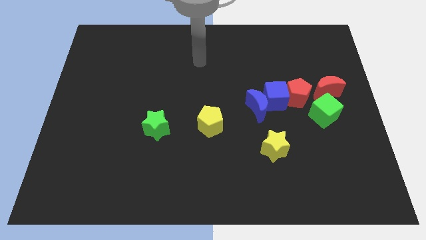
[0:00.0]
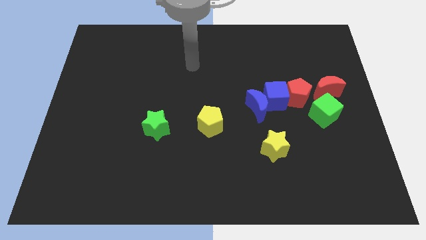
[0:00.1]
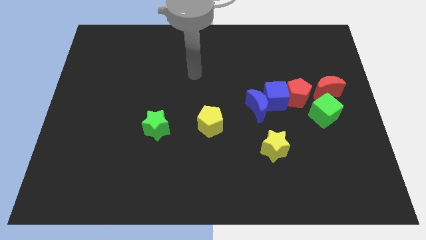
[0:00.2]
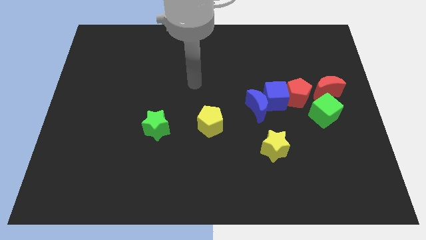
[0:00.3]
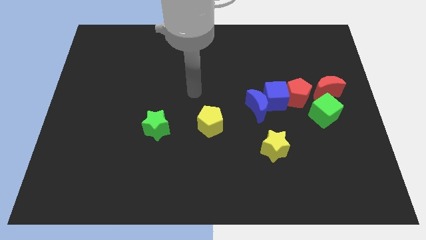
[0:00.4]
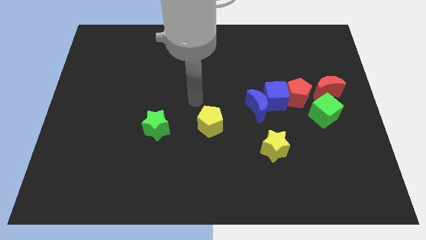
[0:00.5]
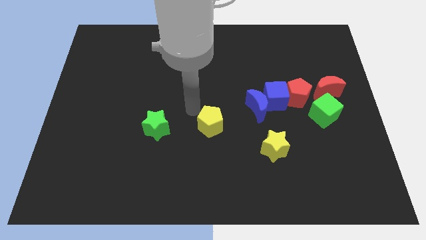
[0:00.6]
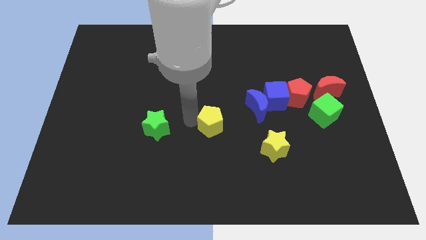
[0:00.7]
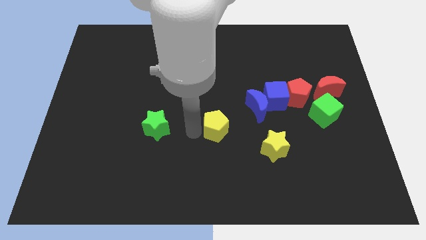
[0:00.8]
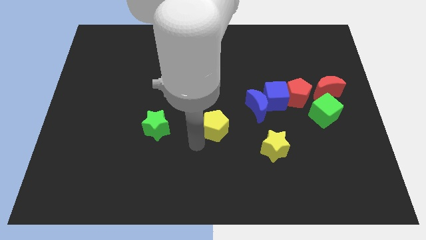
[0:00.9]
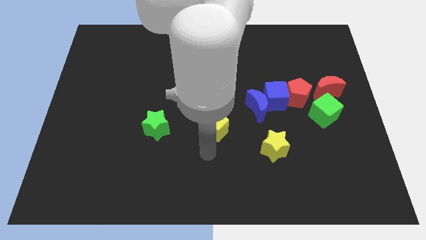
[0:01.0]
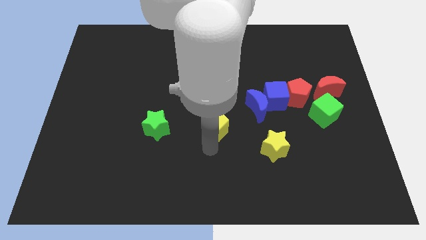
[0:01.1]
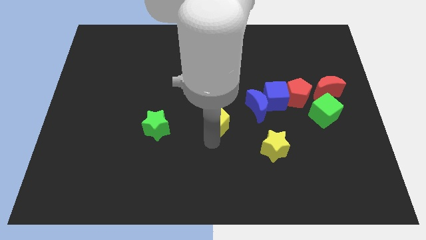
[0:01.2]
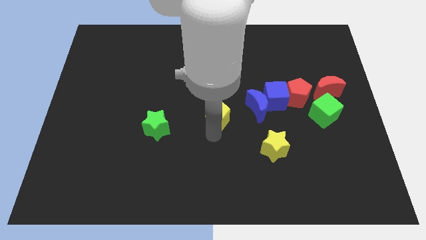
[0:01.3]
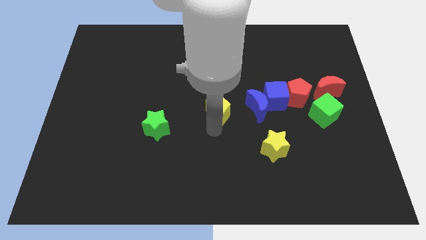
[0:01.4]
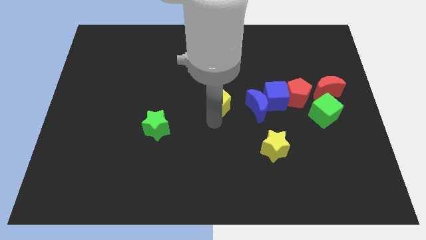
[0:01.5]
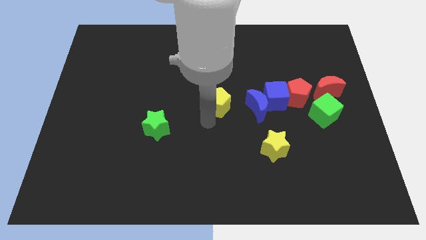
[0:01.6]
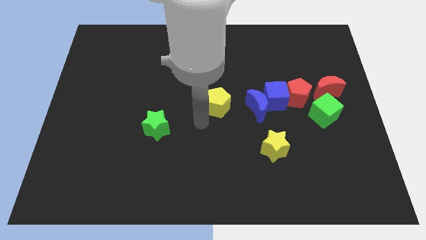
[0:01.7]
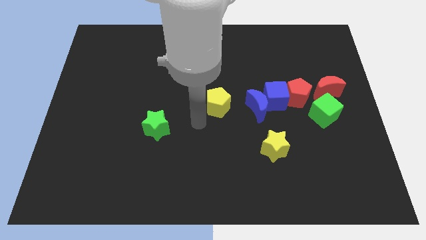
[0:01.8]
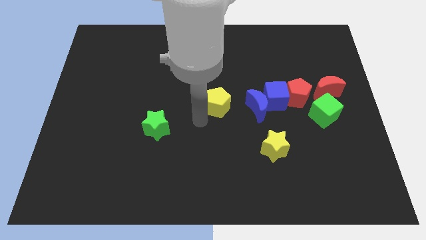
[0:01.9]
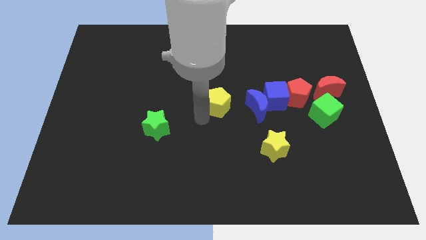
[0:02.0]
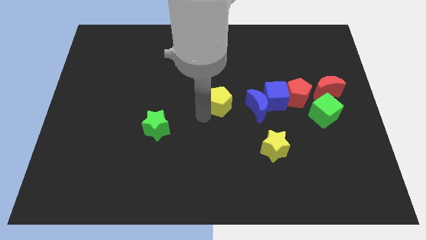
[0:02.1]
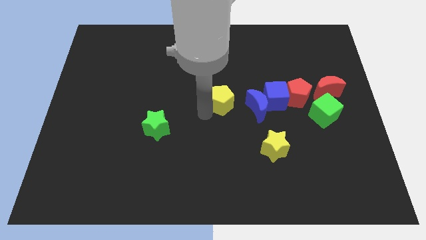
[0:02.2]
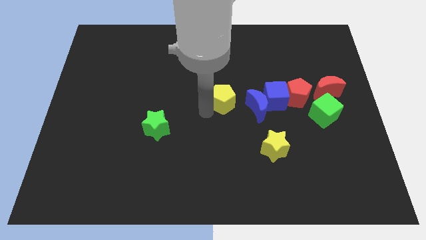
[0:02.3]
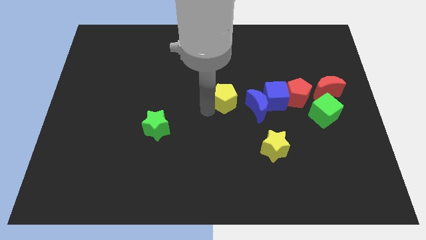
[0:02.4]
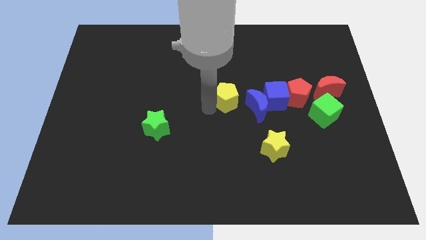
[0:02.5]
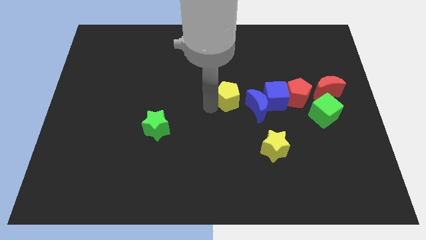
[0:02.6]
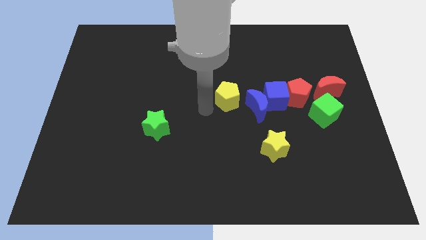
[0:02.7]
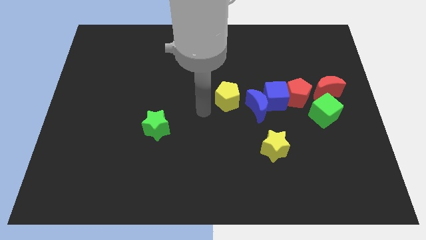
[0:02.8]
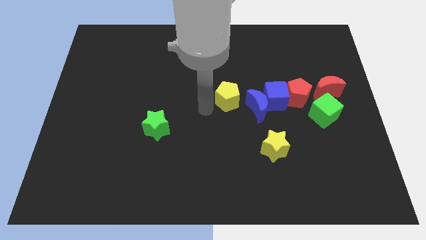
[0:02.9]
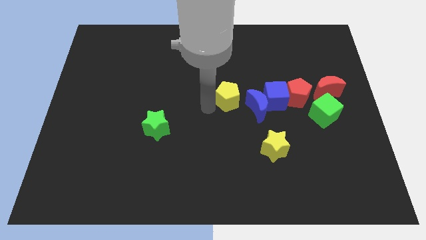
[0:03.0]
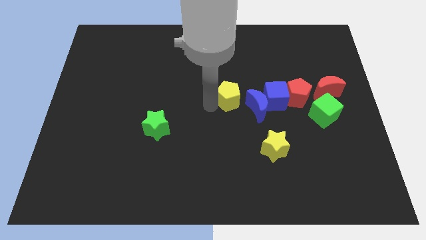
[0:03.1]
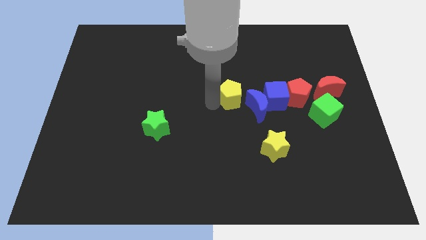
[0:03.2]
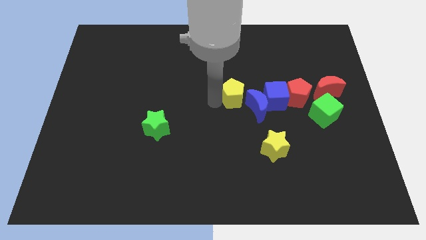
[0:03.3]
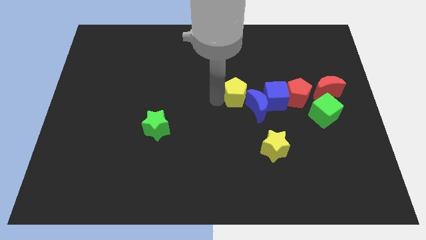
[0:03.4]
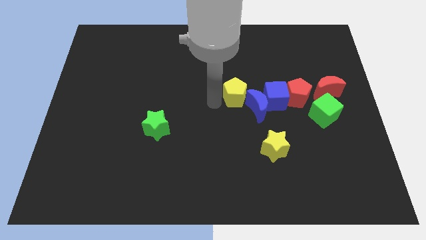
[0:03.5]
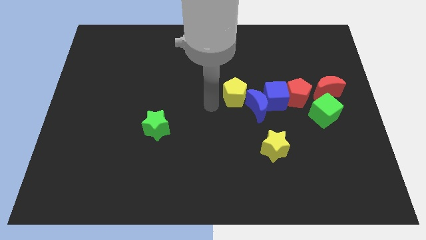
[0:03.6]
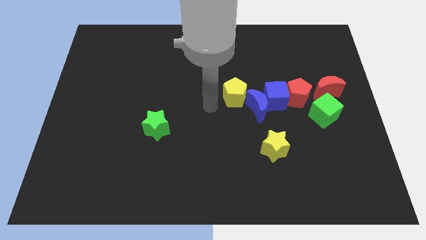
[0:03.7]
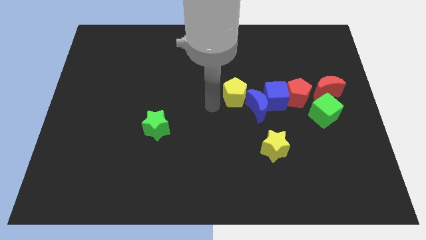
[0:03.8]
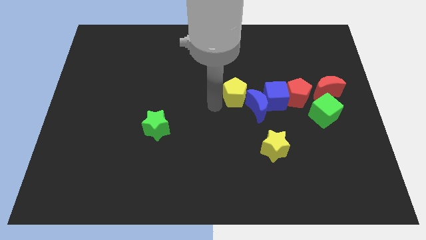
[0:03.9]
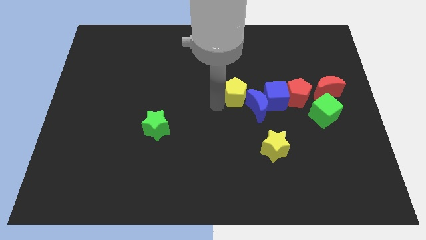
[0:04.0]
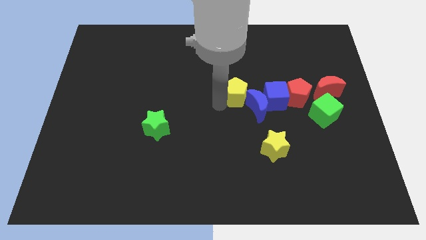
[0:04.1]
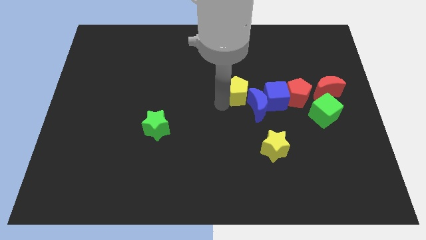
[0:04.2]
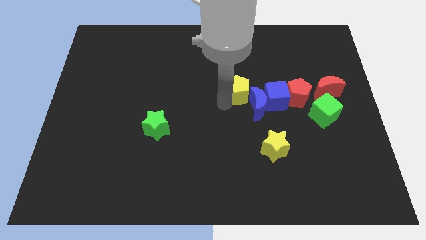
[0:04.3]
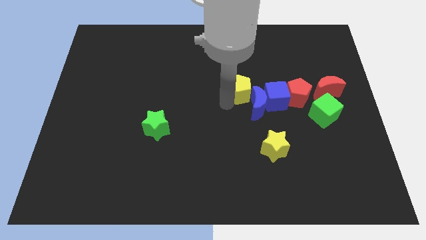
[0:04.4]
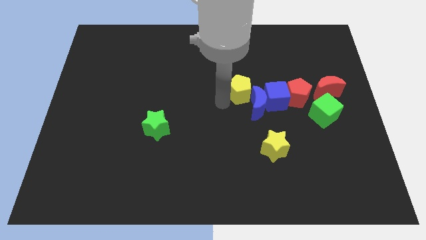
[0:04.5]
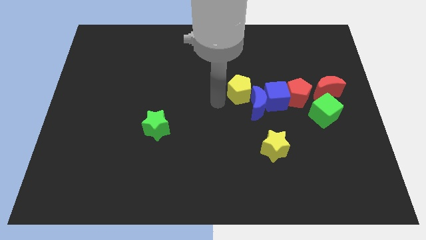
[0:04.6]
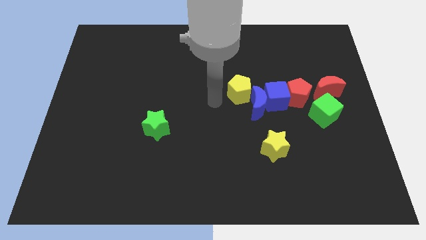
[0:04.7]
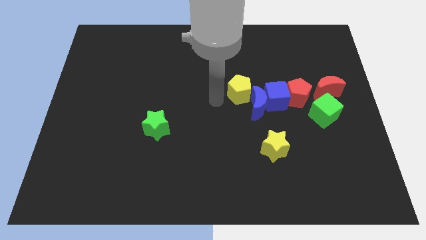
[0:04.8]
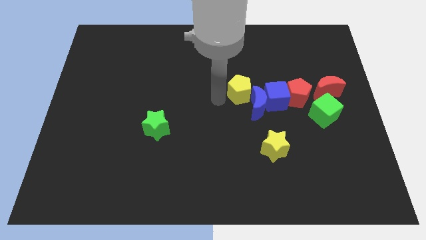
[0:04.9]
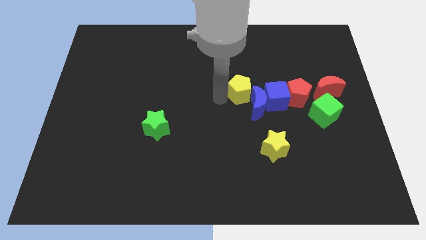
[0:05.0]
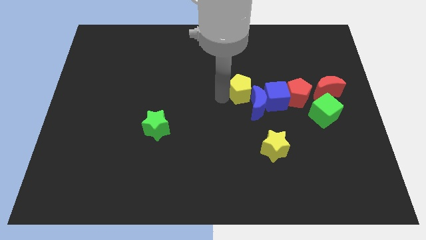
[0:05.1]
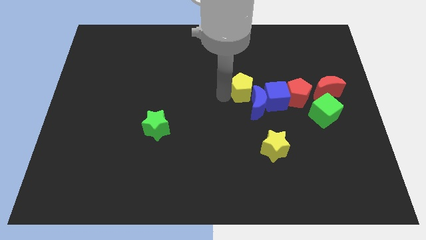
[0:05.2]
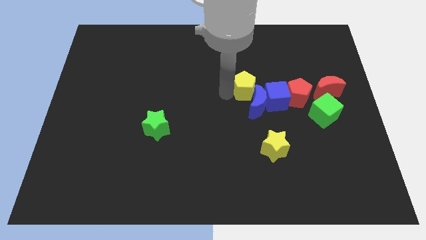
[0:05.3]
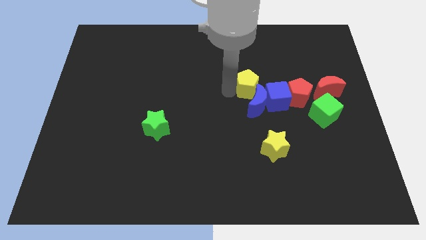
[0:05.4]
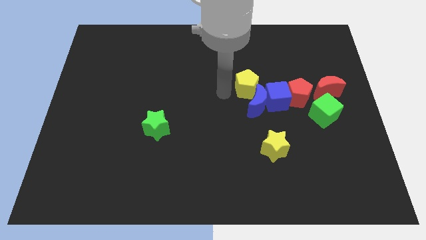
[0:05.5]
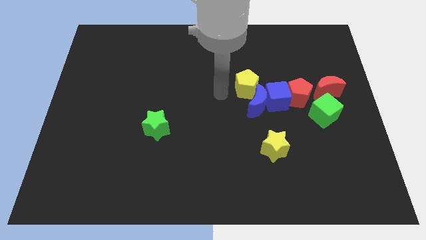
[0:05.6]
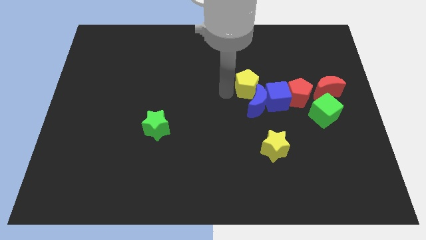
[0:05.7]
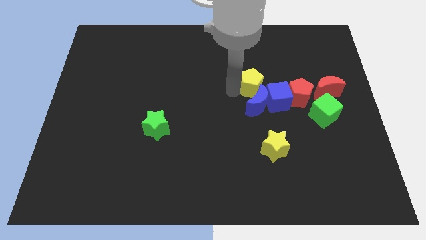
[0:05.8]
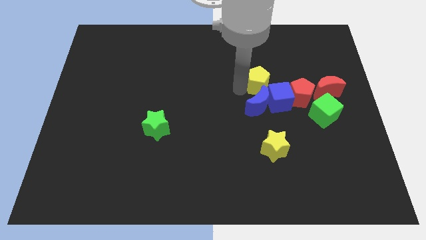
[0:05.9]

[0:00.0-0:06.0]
move the yellow pentagon to the top left of the red pentagon

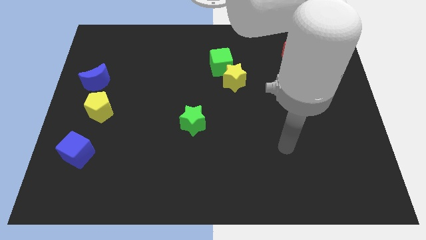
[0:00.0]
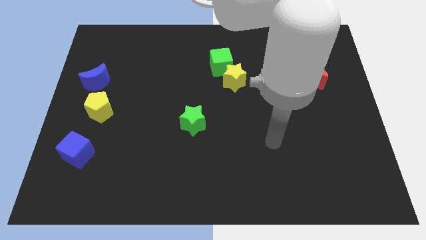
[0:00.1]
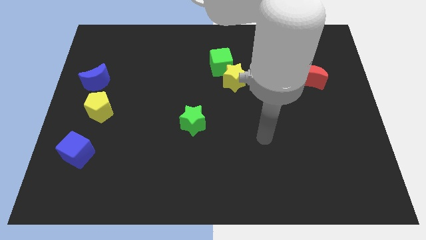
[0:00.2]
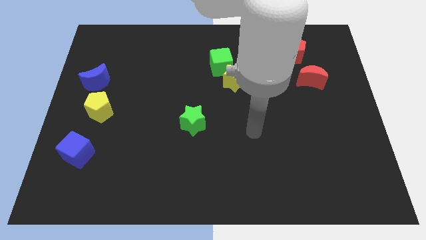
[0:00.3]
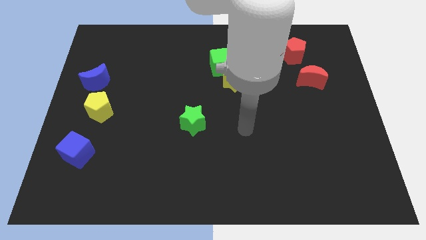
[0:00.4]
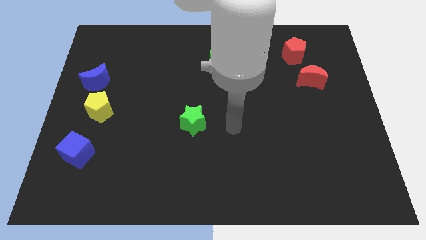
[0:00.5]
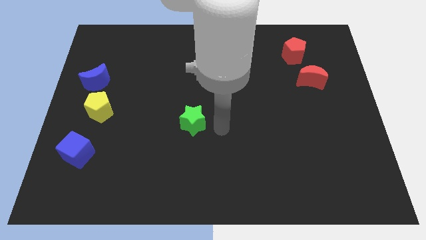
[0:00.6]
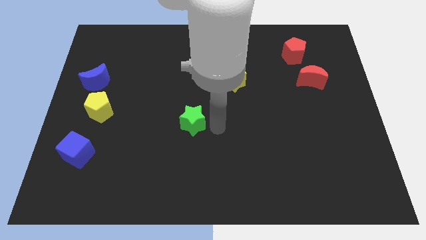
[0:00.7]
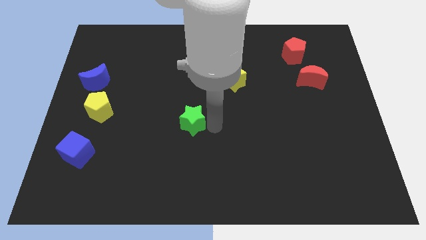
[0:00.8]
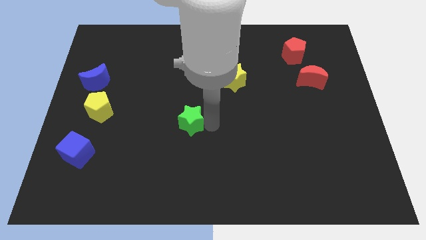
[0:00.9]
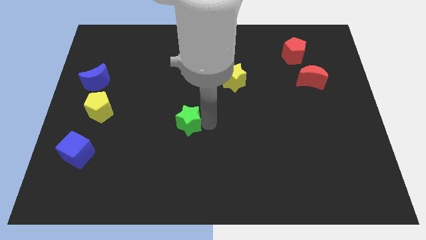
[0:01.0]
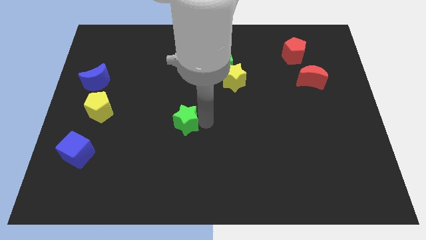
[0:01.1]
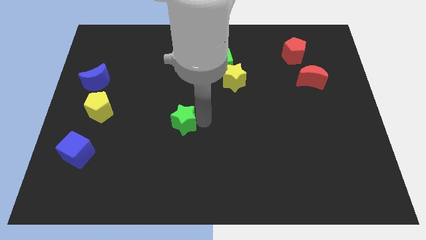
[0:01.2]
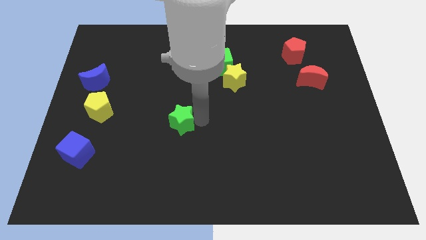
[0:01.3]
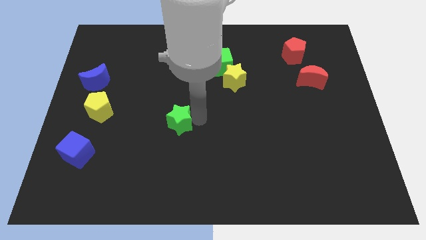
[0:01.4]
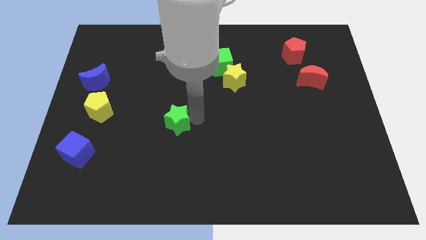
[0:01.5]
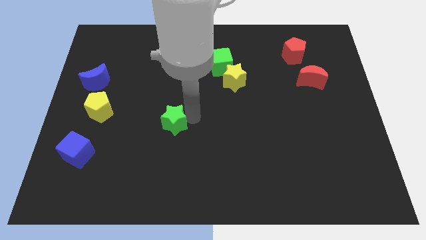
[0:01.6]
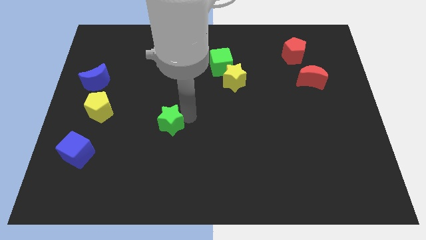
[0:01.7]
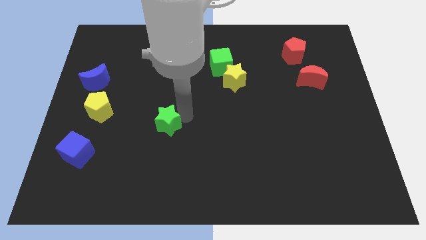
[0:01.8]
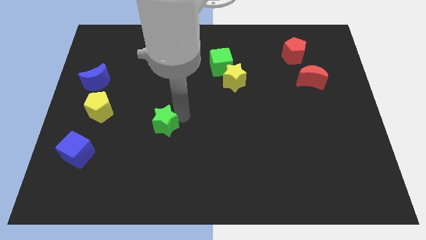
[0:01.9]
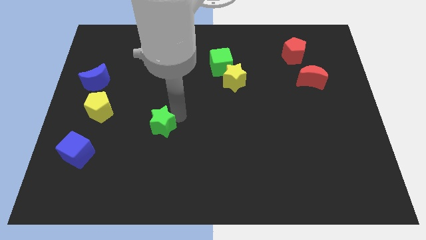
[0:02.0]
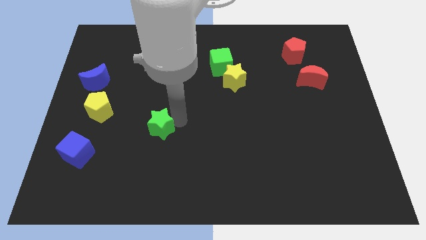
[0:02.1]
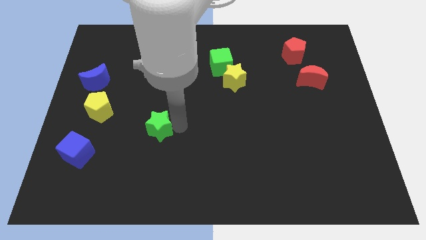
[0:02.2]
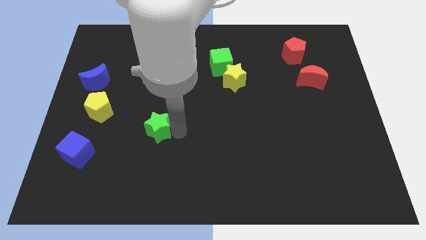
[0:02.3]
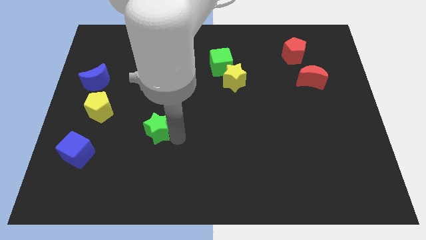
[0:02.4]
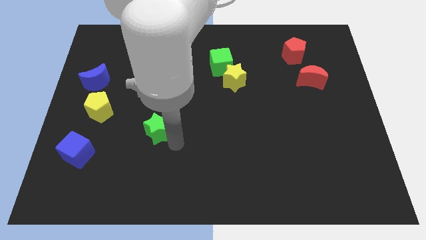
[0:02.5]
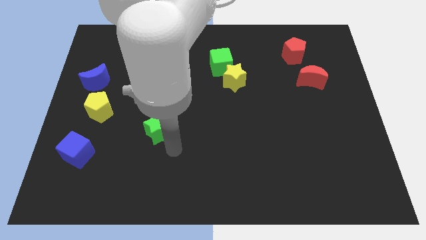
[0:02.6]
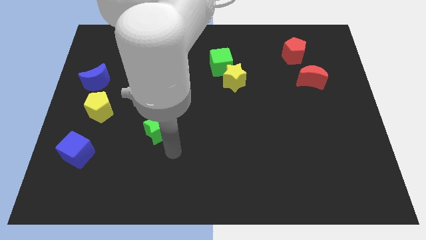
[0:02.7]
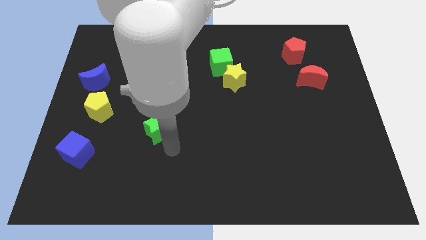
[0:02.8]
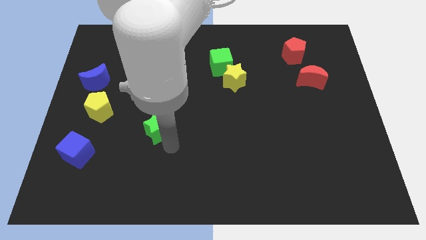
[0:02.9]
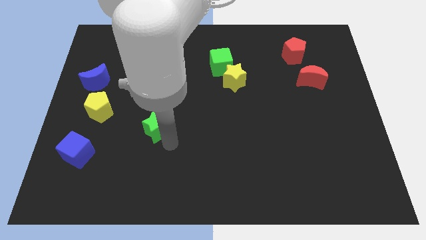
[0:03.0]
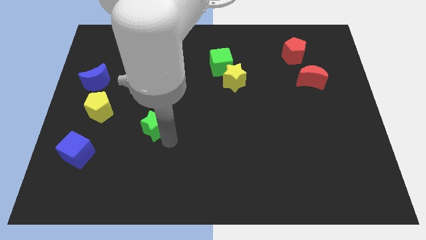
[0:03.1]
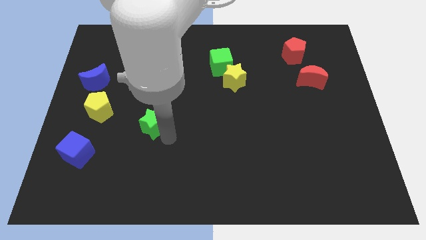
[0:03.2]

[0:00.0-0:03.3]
move the green star just right of the yellow pentagon
